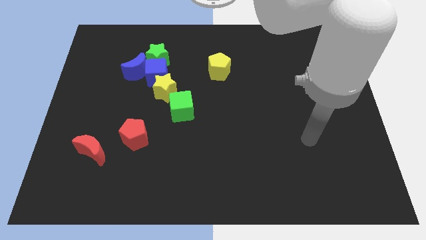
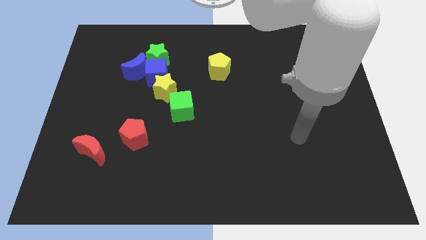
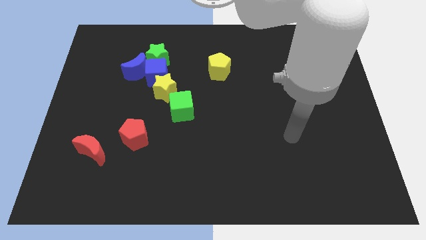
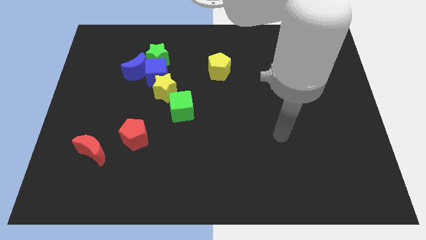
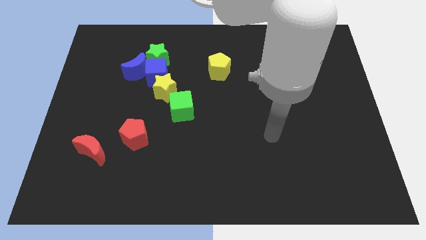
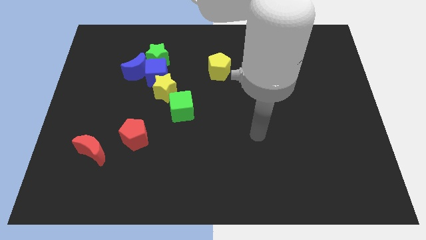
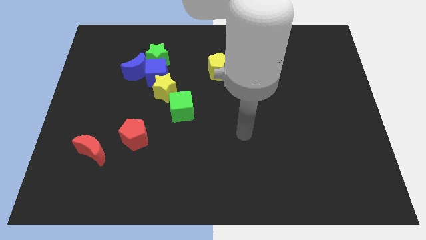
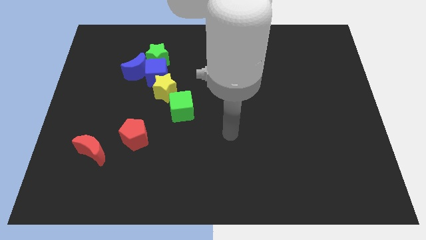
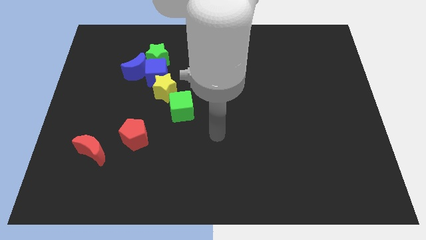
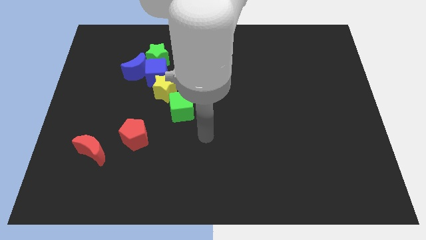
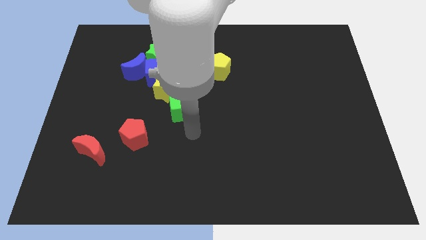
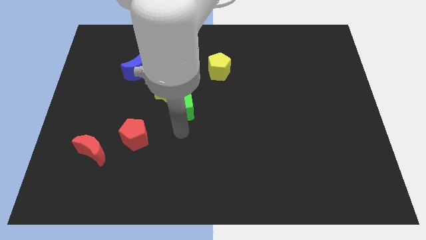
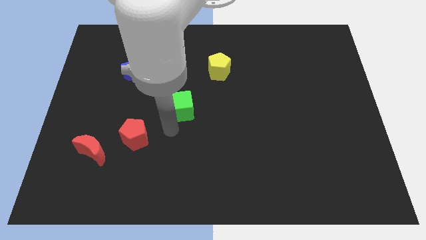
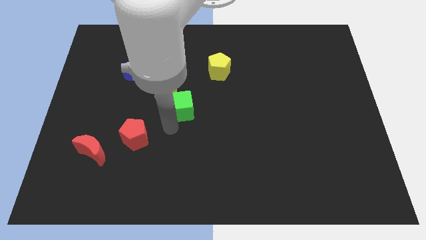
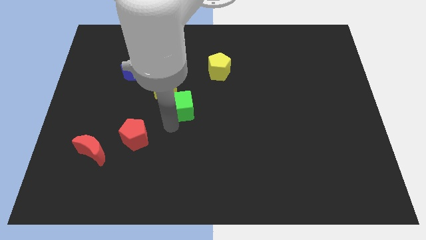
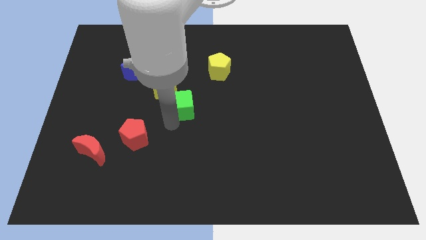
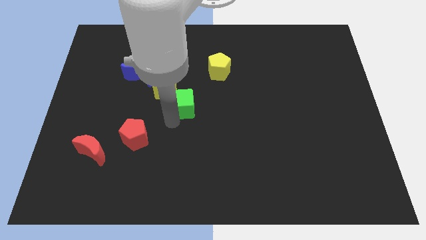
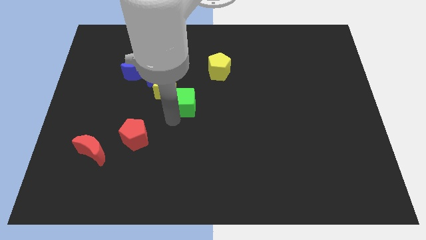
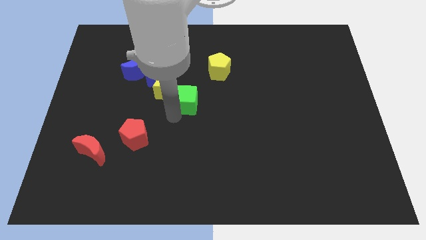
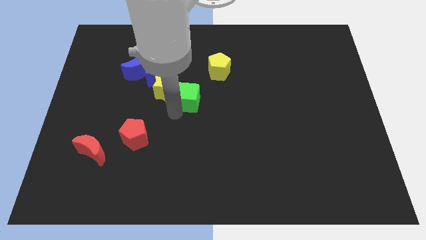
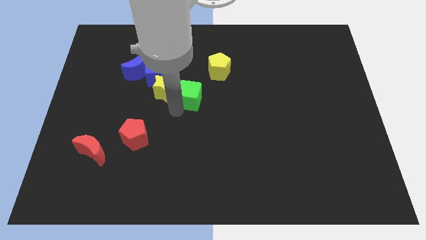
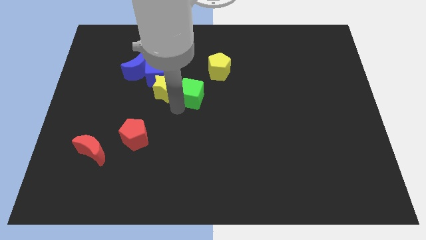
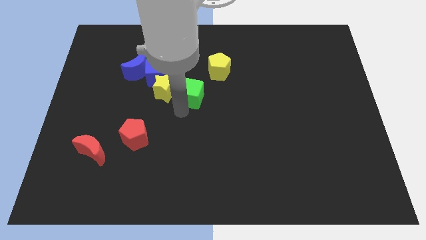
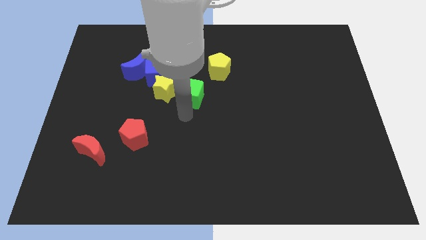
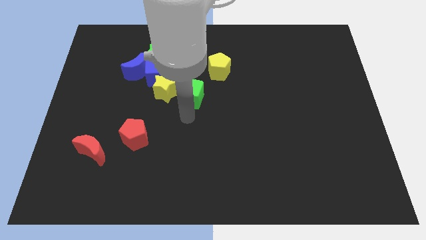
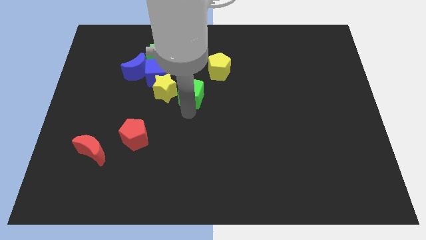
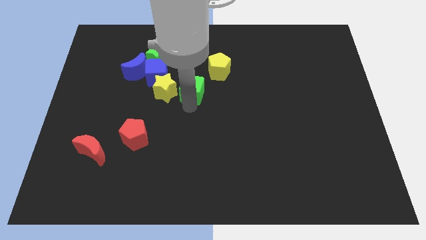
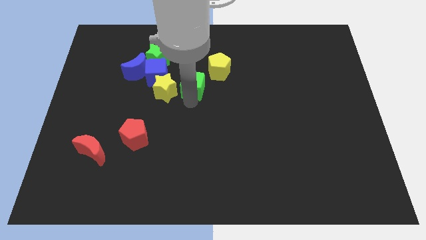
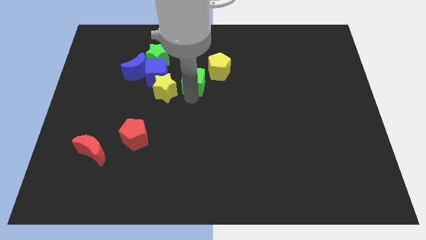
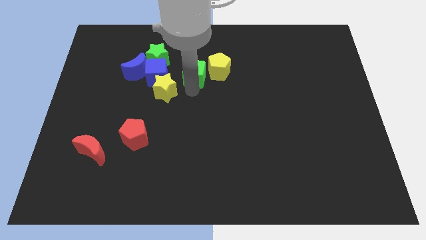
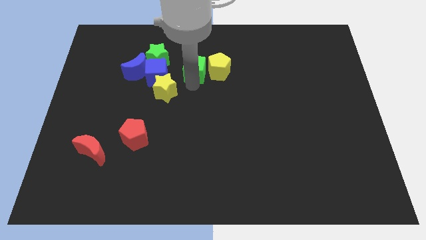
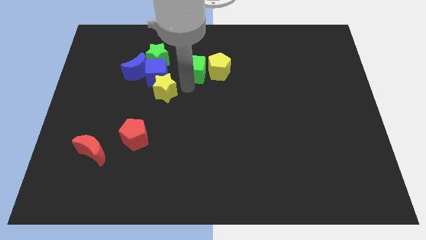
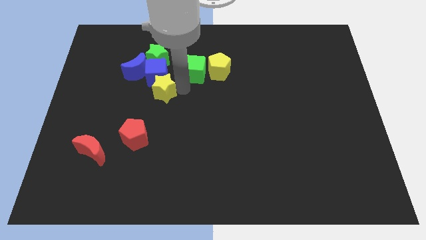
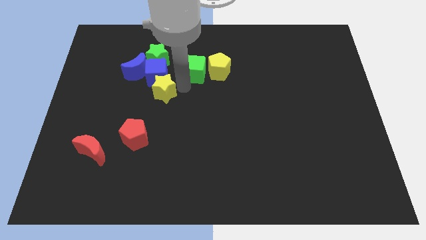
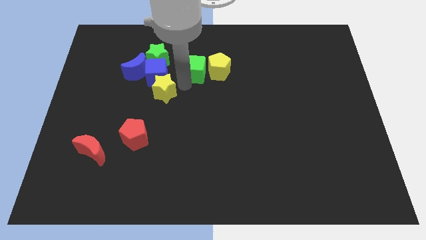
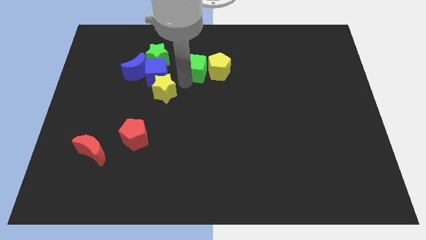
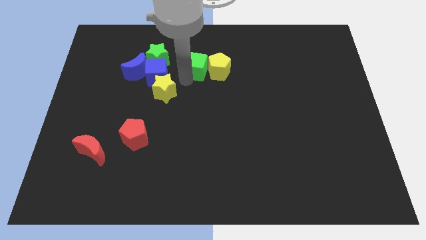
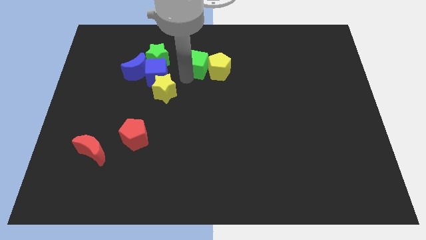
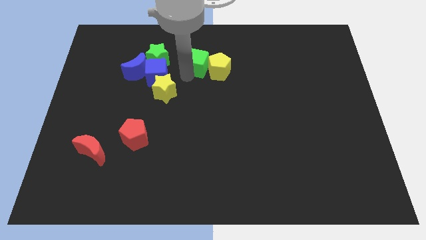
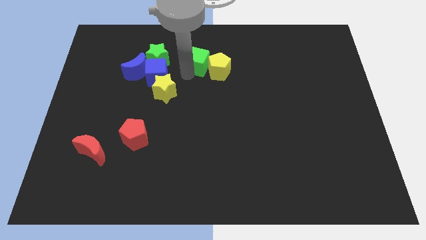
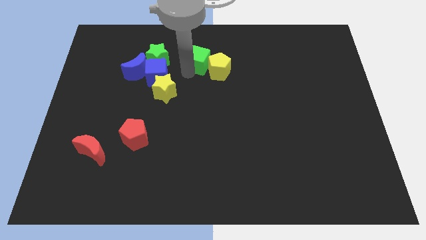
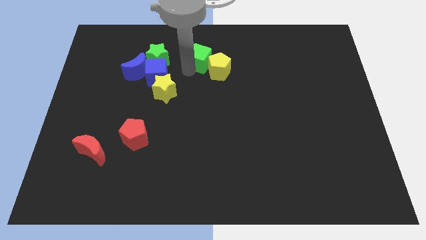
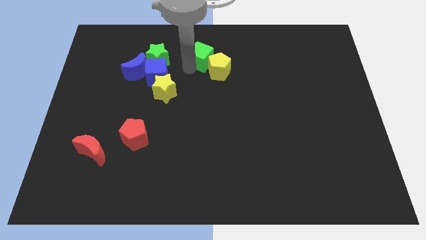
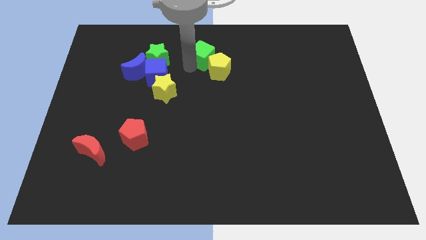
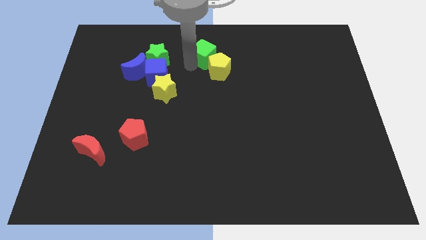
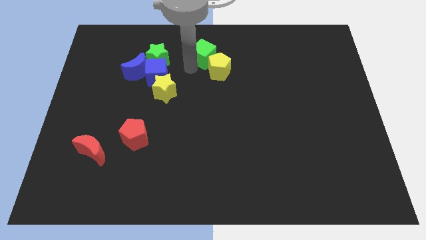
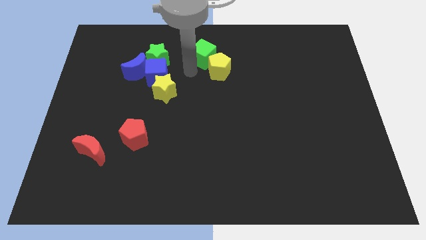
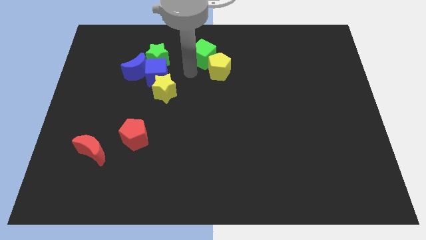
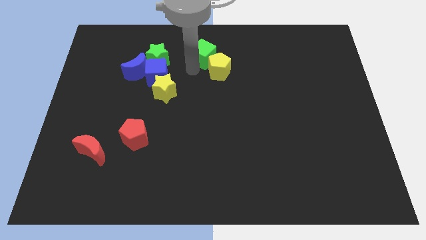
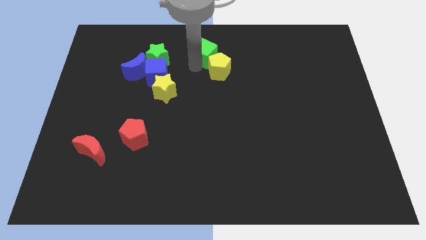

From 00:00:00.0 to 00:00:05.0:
push the green cube to the towards your base

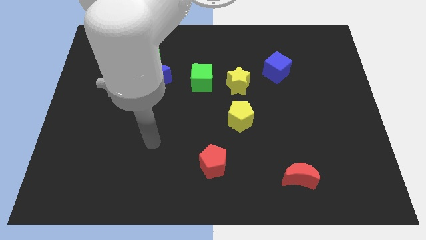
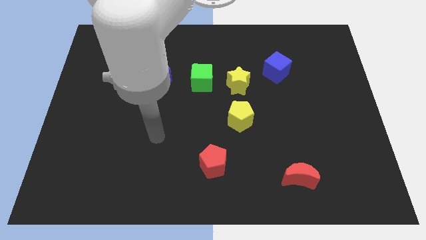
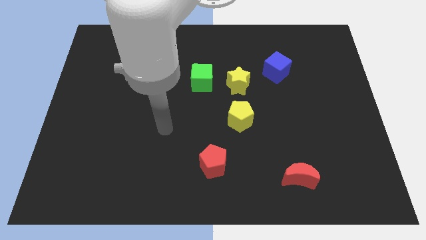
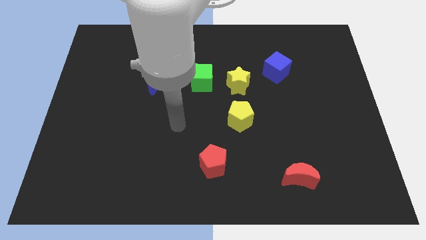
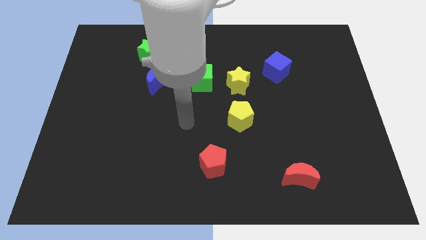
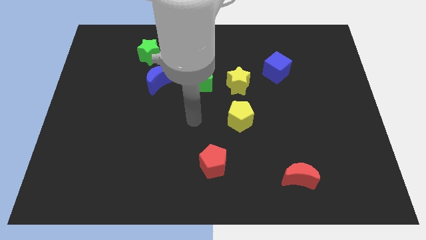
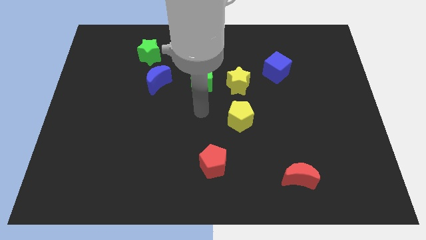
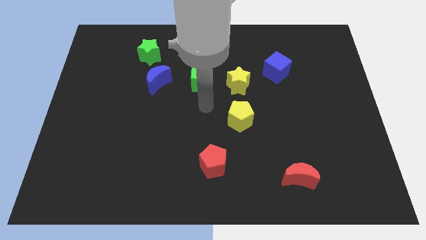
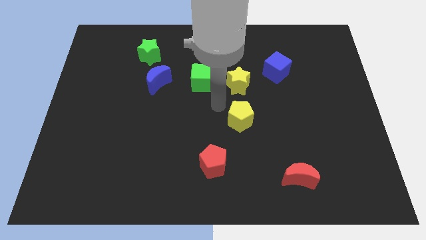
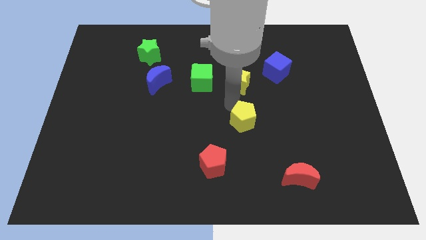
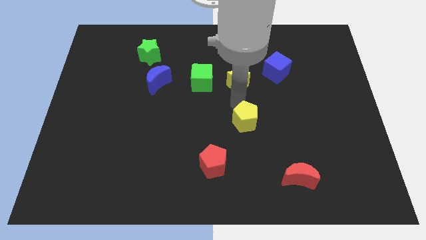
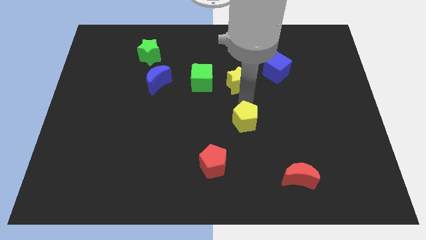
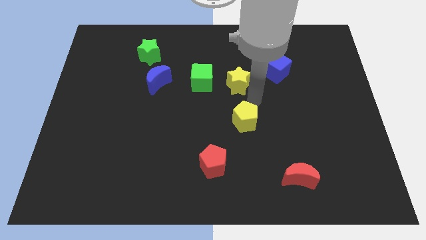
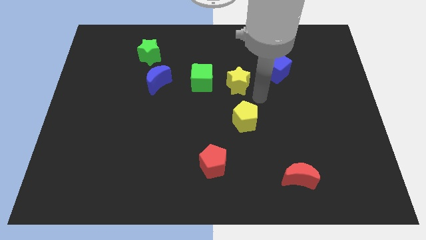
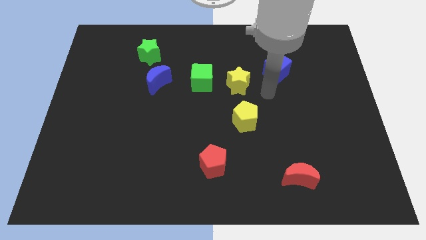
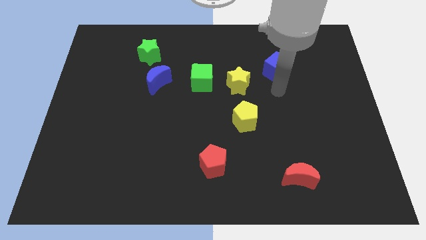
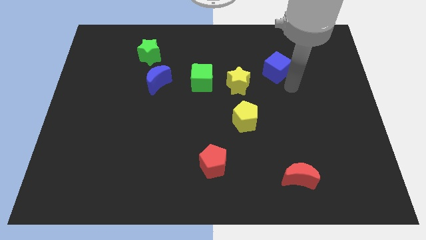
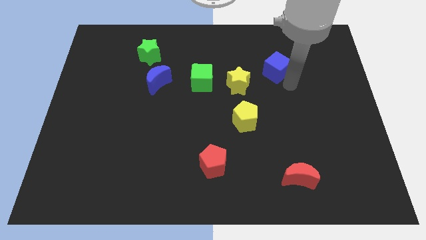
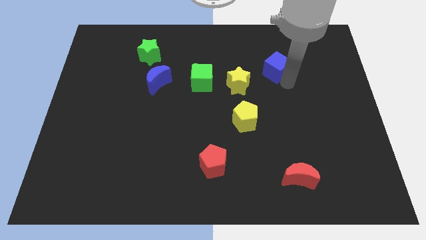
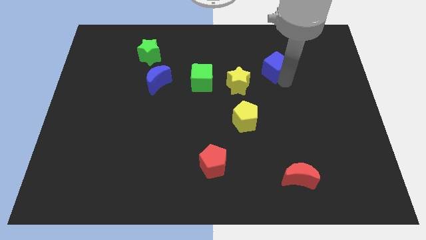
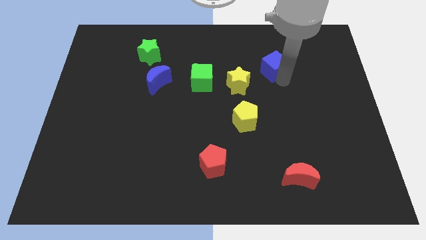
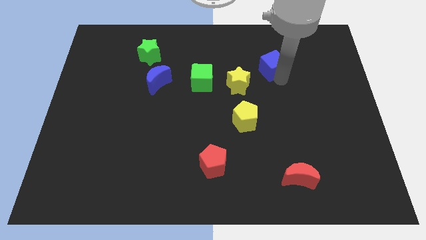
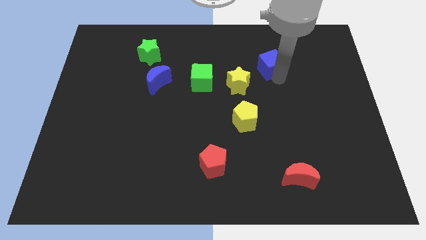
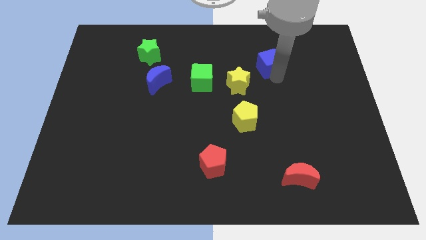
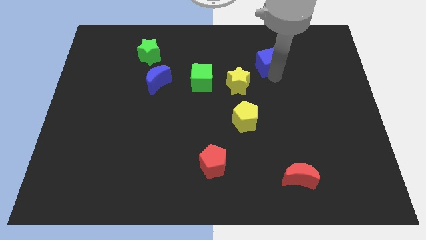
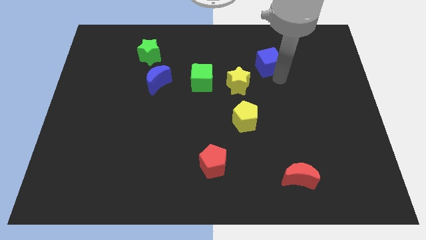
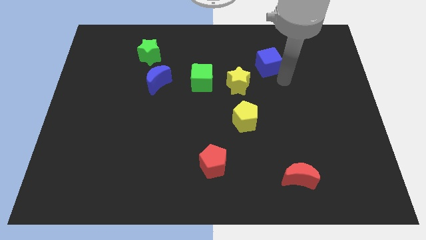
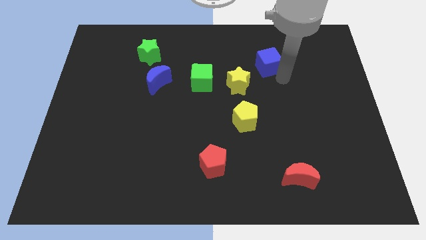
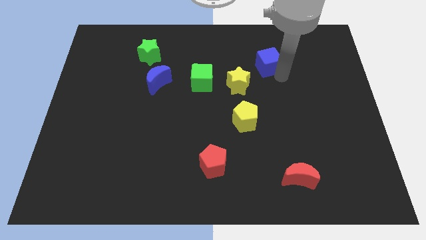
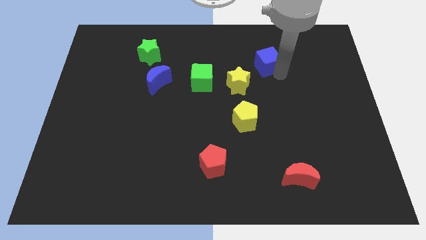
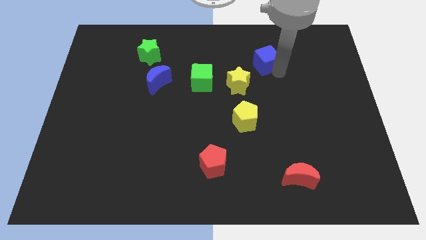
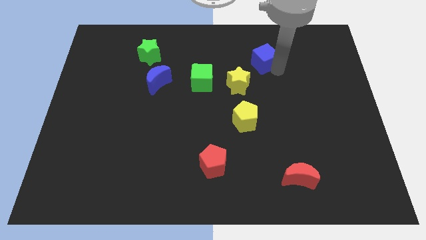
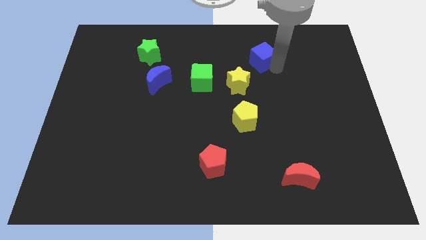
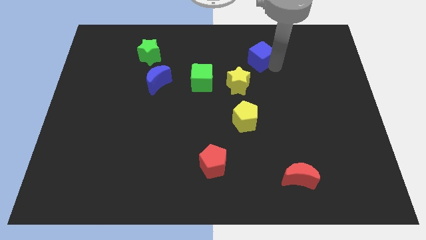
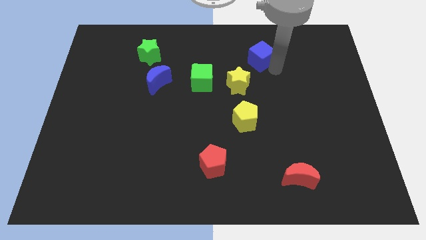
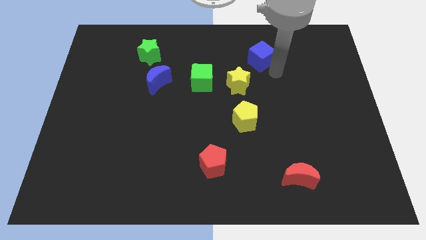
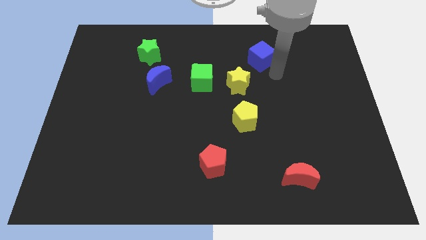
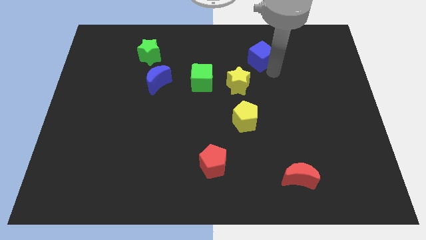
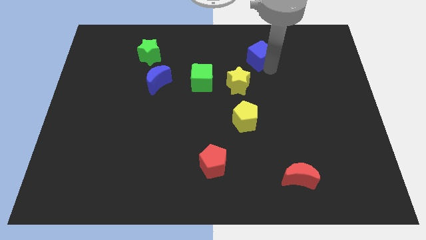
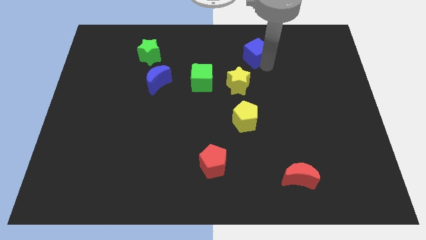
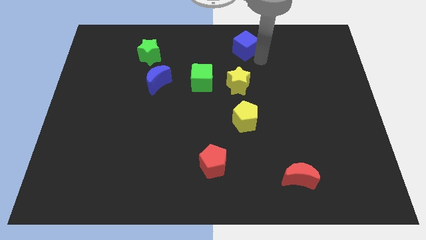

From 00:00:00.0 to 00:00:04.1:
slide the blue cube to the towards your base
